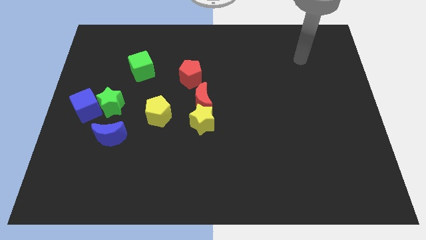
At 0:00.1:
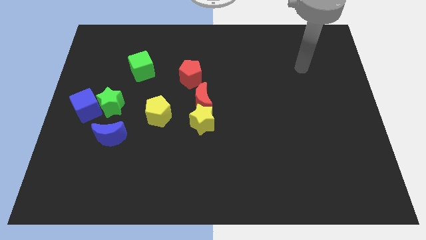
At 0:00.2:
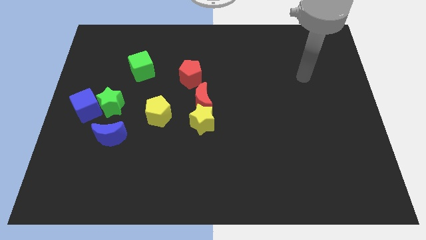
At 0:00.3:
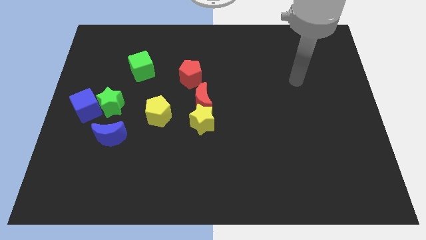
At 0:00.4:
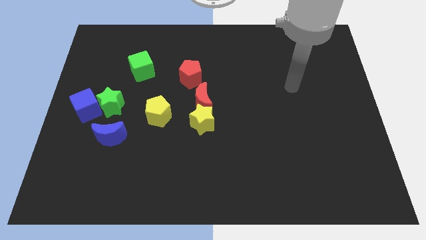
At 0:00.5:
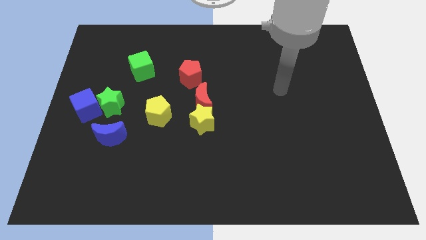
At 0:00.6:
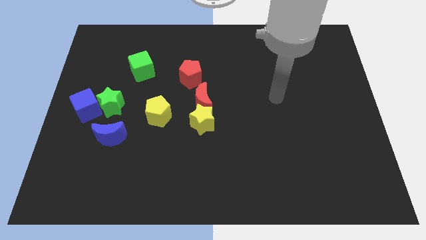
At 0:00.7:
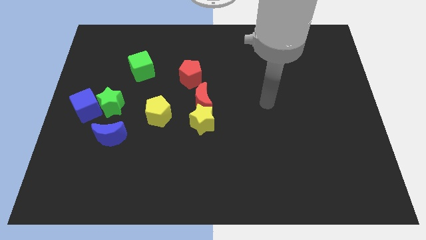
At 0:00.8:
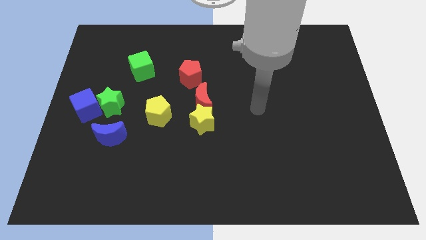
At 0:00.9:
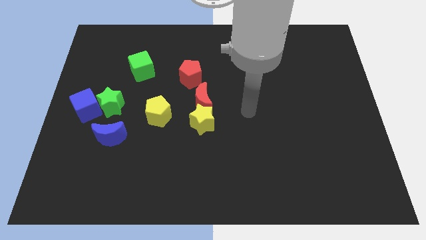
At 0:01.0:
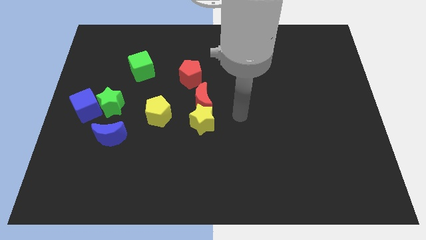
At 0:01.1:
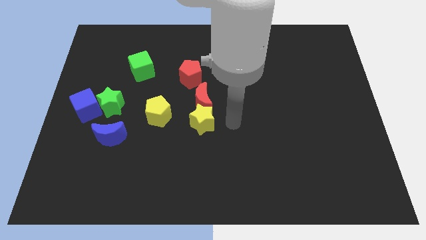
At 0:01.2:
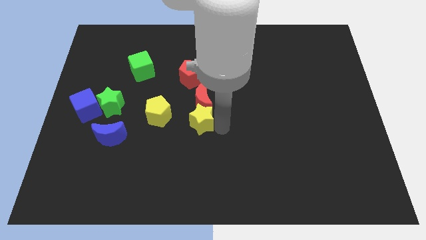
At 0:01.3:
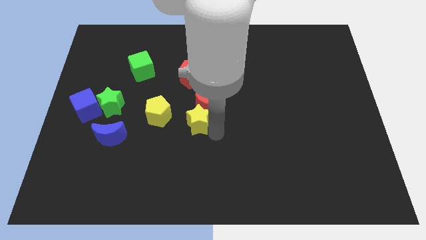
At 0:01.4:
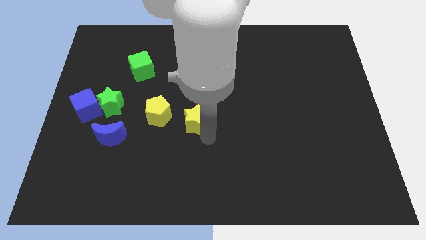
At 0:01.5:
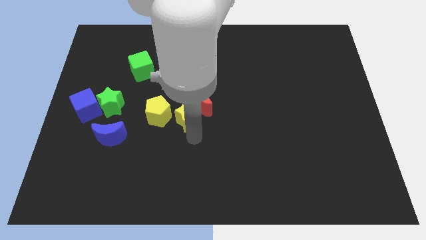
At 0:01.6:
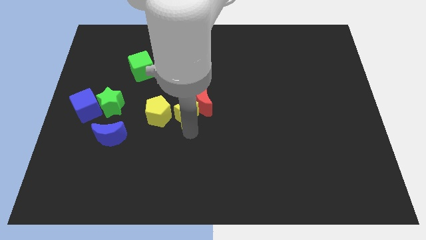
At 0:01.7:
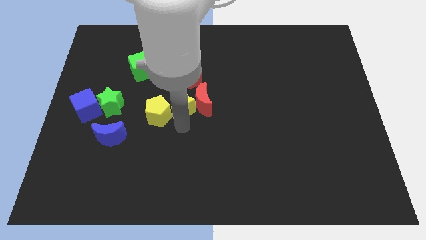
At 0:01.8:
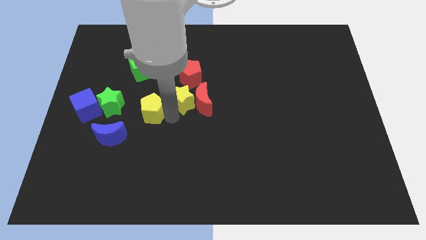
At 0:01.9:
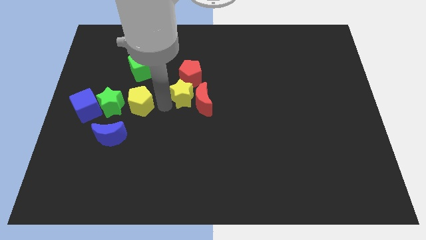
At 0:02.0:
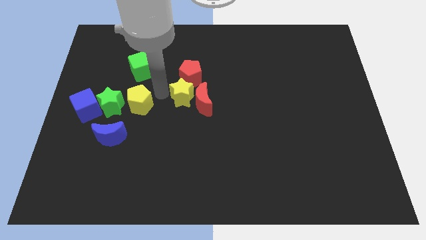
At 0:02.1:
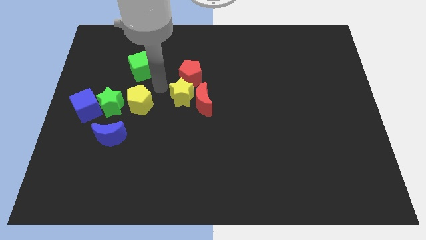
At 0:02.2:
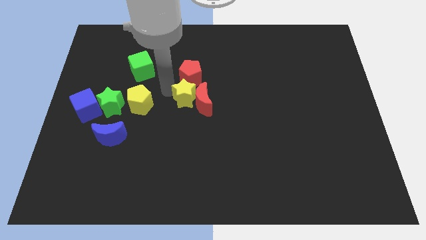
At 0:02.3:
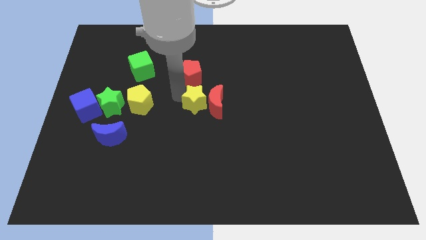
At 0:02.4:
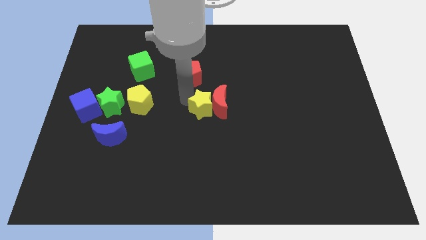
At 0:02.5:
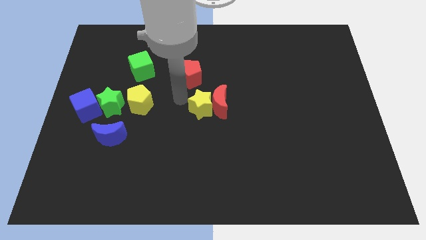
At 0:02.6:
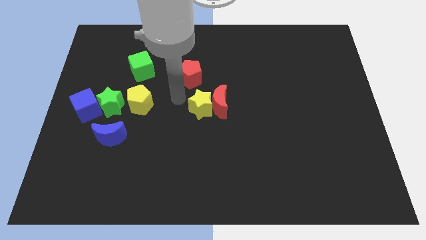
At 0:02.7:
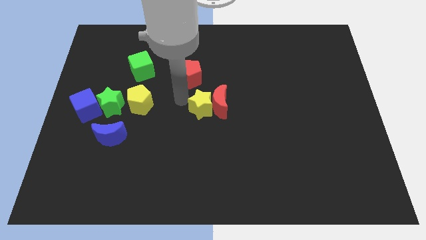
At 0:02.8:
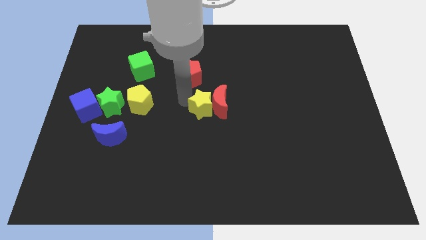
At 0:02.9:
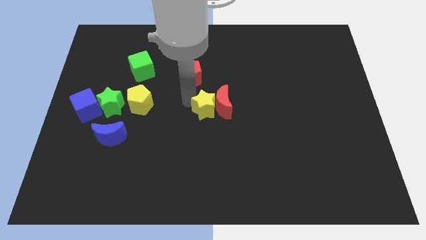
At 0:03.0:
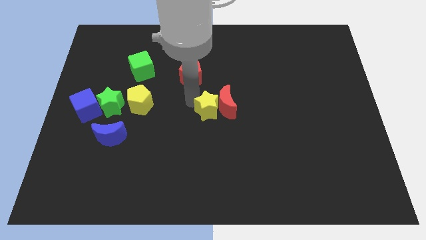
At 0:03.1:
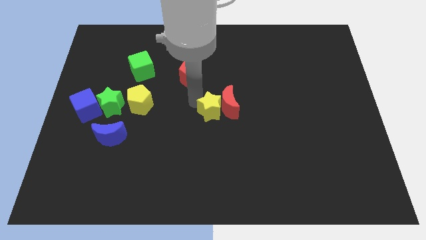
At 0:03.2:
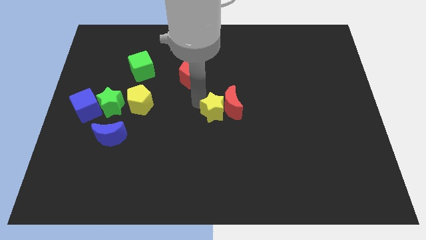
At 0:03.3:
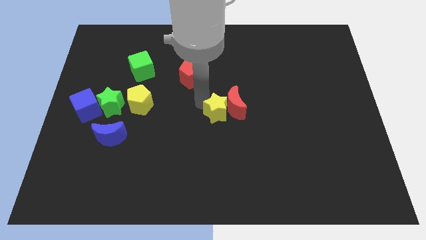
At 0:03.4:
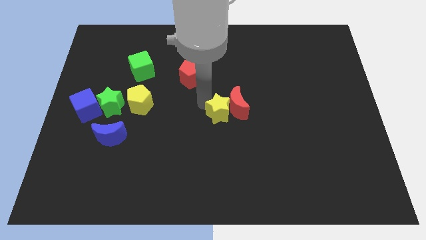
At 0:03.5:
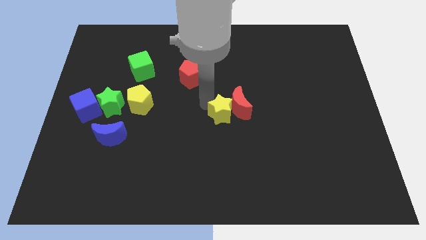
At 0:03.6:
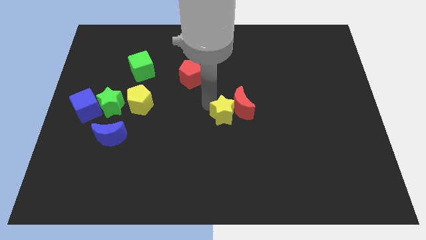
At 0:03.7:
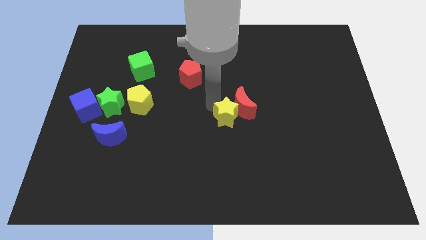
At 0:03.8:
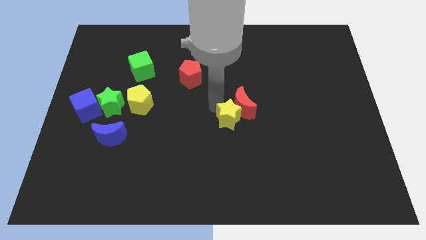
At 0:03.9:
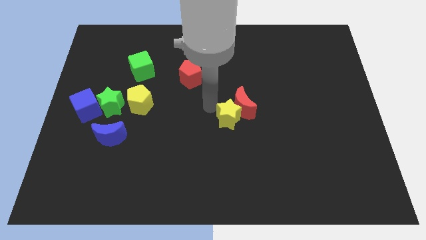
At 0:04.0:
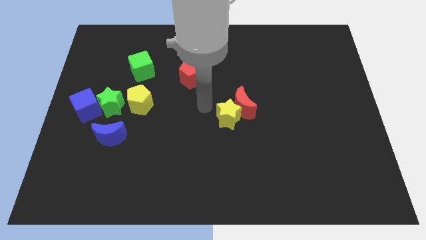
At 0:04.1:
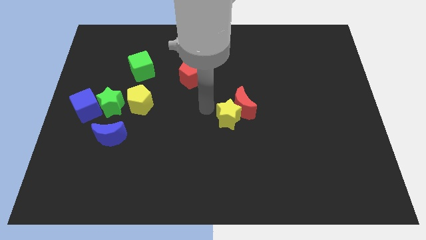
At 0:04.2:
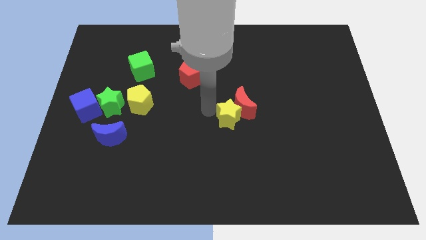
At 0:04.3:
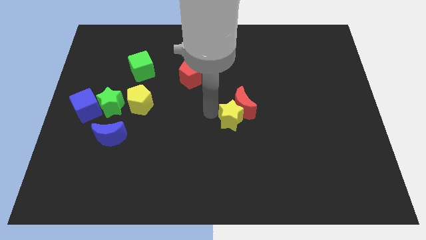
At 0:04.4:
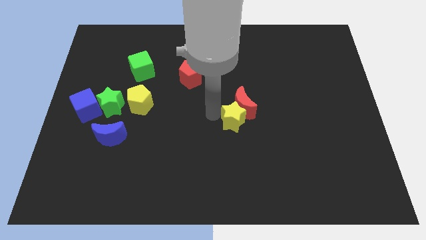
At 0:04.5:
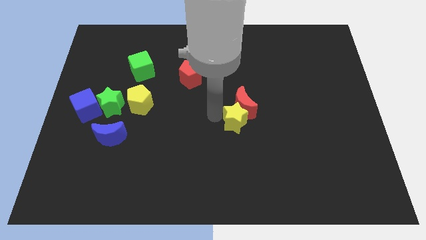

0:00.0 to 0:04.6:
move the yellow star a little right

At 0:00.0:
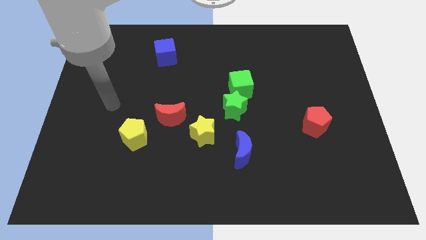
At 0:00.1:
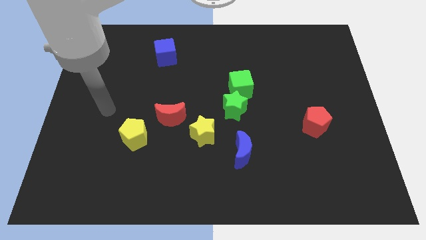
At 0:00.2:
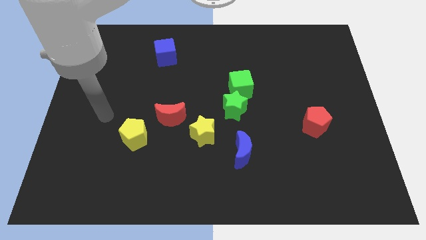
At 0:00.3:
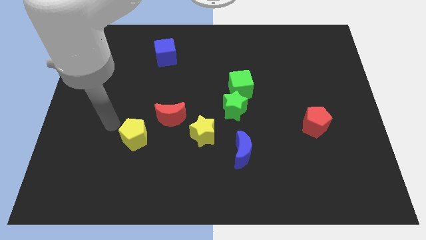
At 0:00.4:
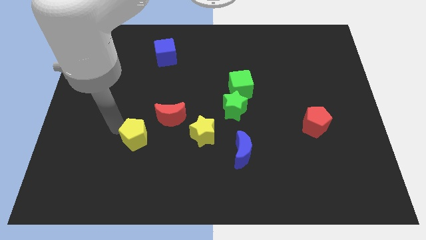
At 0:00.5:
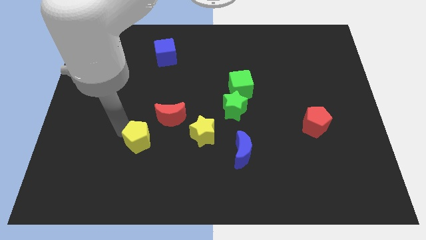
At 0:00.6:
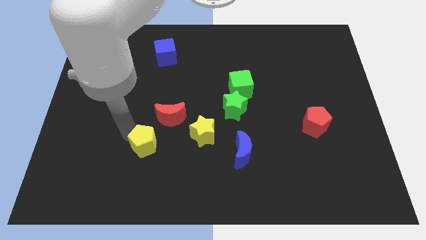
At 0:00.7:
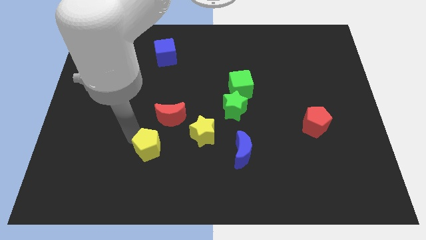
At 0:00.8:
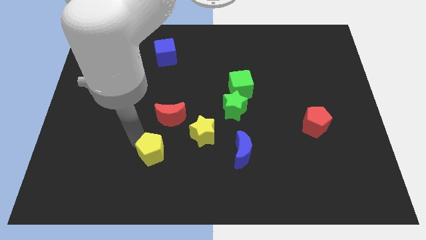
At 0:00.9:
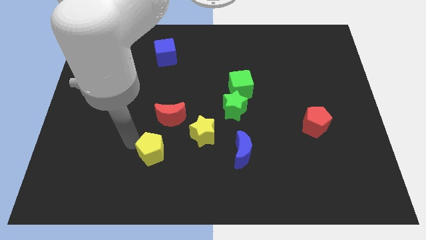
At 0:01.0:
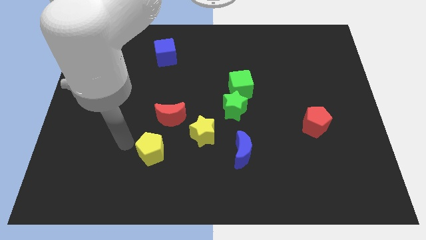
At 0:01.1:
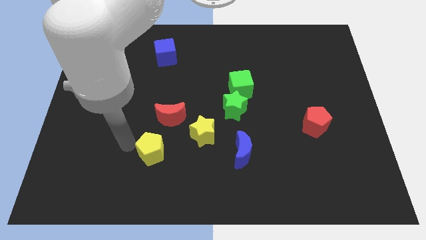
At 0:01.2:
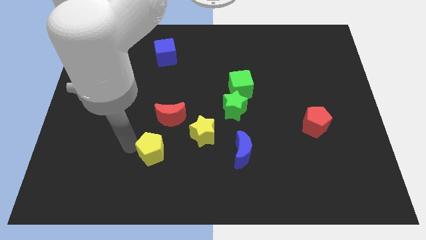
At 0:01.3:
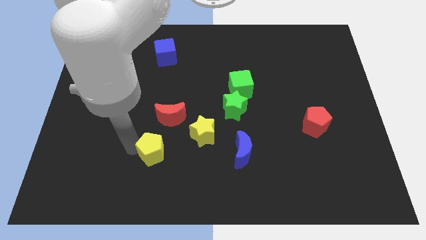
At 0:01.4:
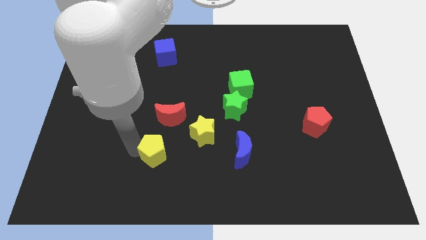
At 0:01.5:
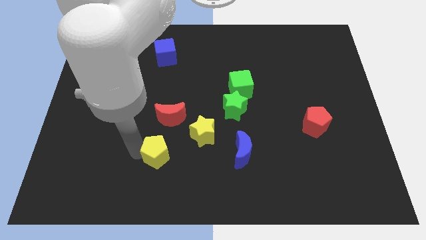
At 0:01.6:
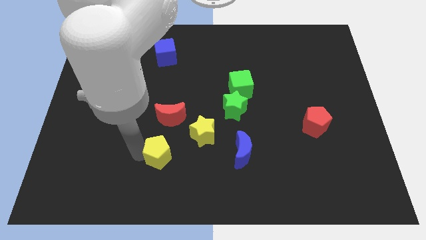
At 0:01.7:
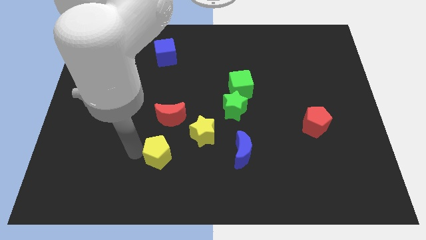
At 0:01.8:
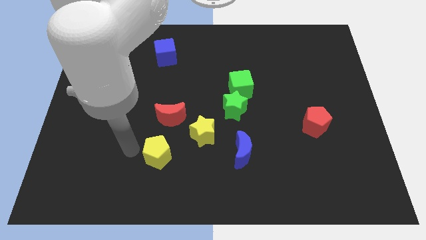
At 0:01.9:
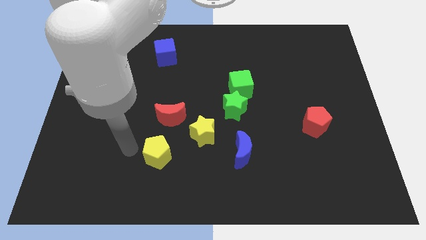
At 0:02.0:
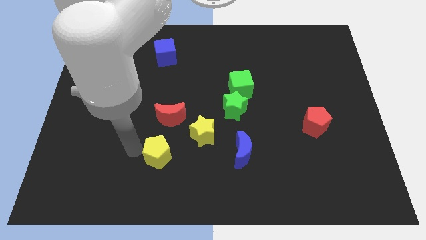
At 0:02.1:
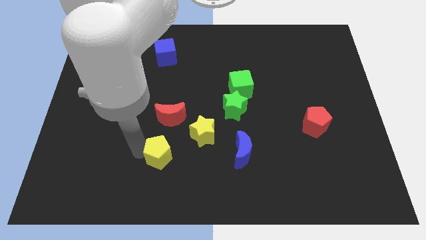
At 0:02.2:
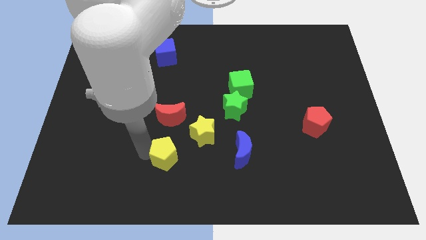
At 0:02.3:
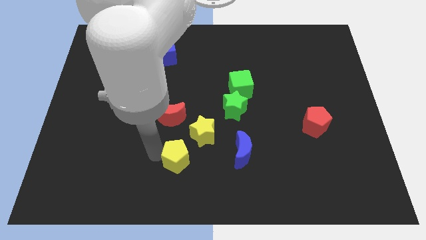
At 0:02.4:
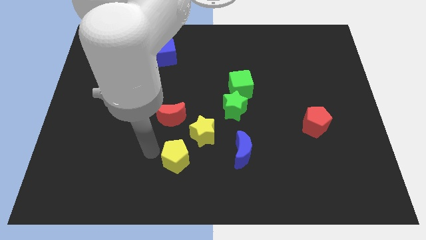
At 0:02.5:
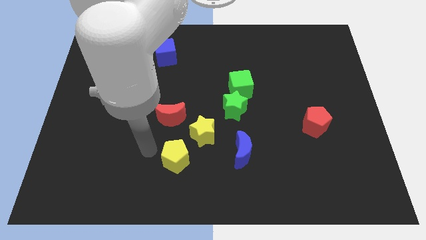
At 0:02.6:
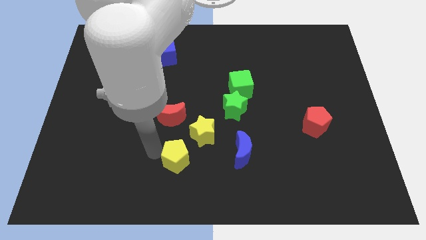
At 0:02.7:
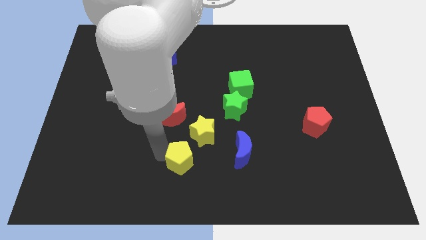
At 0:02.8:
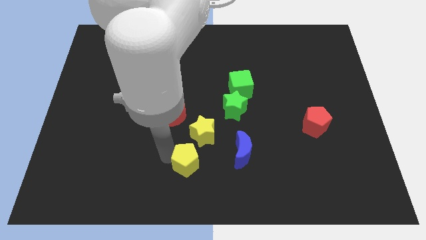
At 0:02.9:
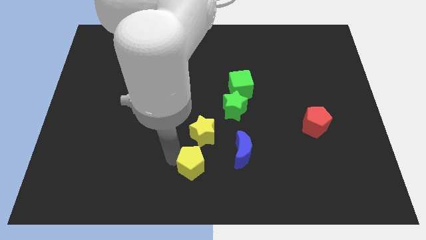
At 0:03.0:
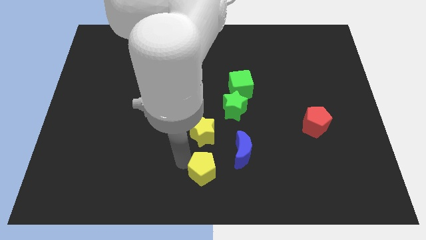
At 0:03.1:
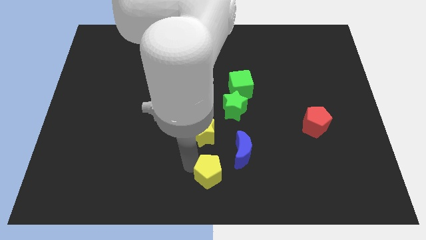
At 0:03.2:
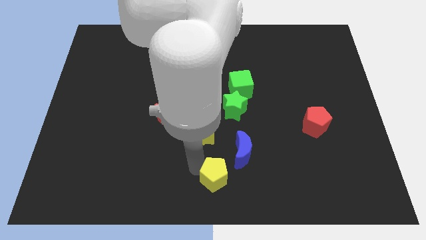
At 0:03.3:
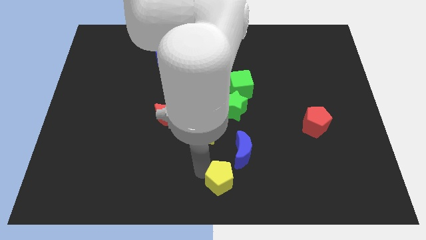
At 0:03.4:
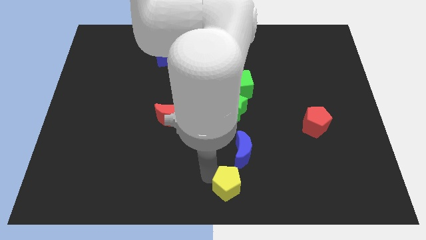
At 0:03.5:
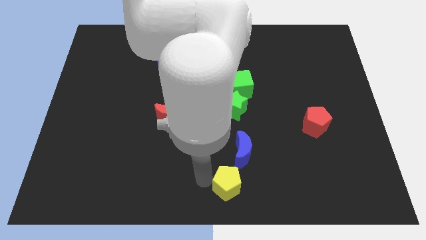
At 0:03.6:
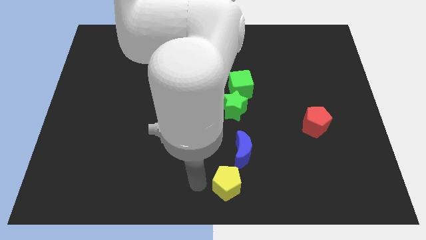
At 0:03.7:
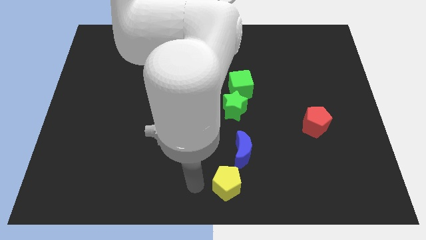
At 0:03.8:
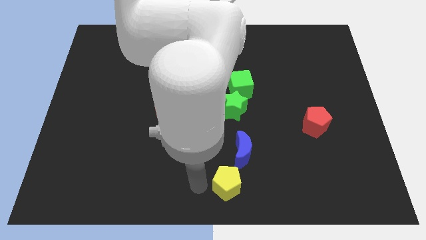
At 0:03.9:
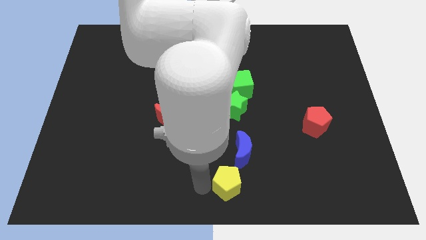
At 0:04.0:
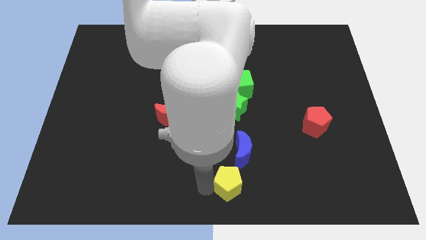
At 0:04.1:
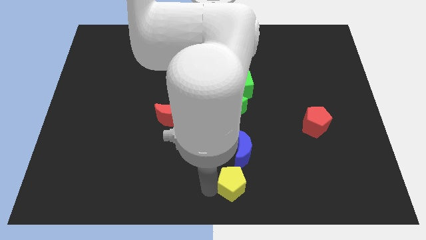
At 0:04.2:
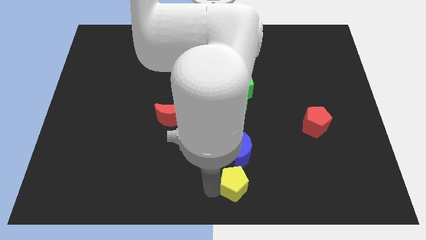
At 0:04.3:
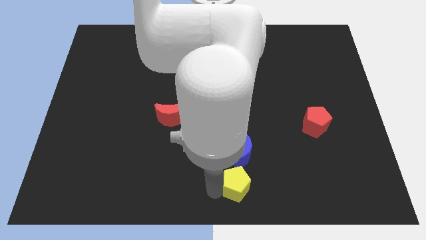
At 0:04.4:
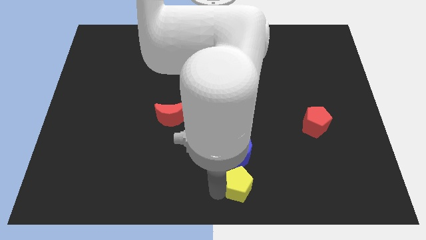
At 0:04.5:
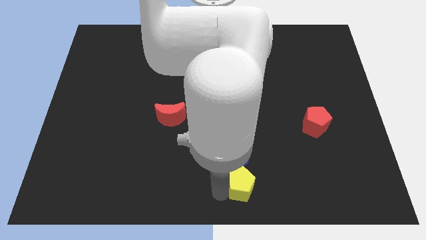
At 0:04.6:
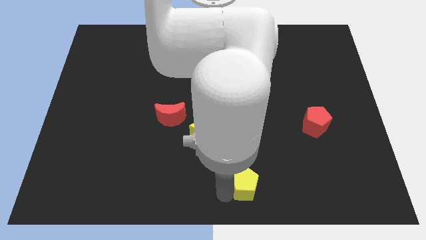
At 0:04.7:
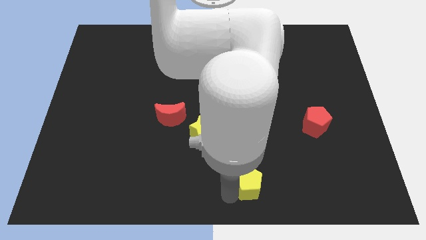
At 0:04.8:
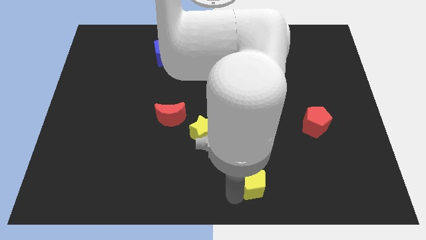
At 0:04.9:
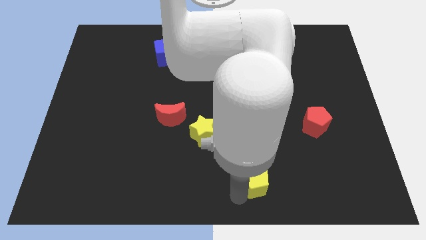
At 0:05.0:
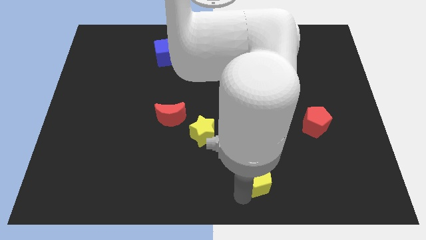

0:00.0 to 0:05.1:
slide the yellow pentagon right
